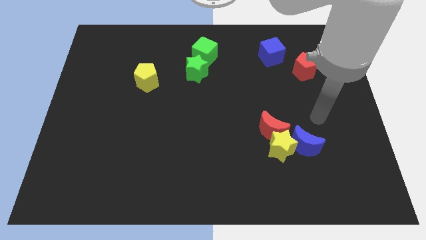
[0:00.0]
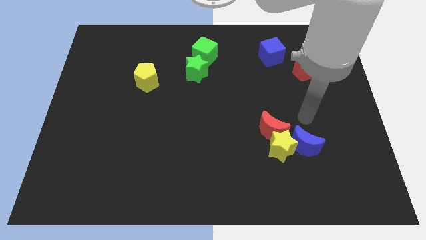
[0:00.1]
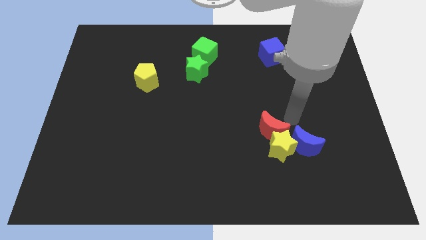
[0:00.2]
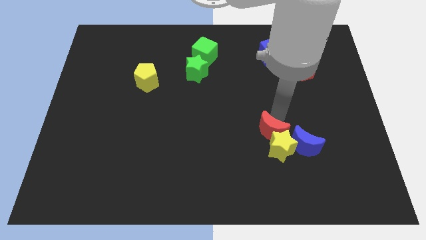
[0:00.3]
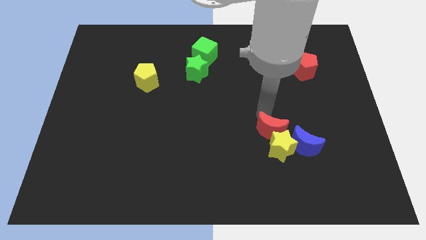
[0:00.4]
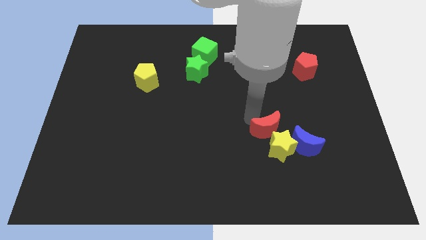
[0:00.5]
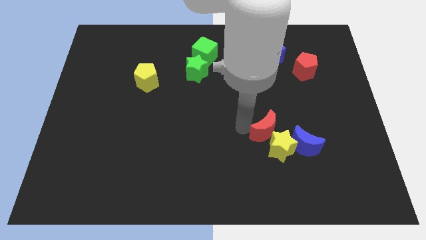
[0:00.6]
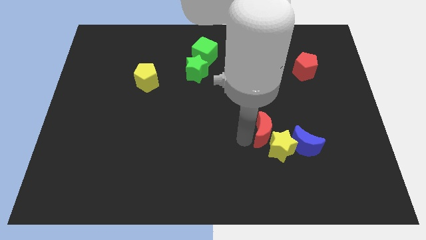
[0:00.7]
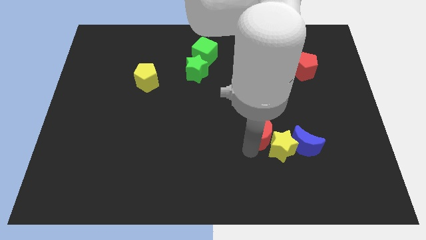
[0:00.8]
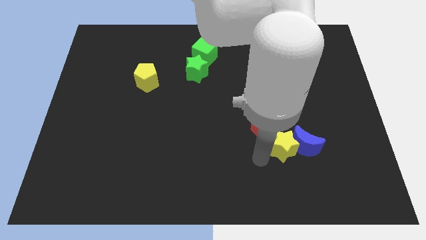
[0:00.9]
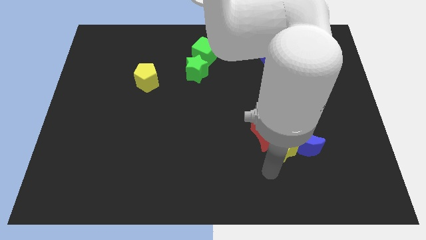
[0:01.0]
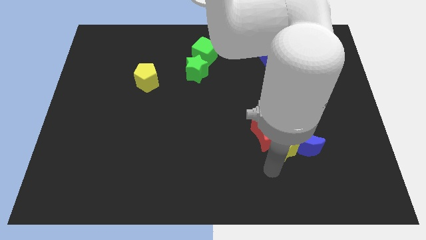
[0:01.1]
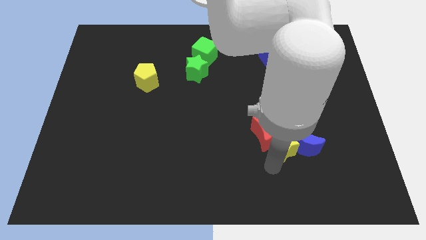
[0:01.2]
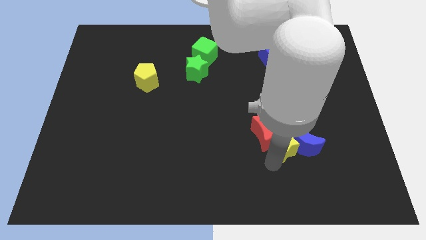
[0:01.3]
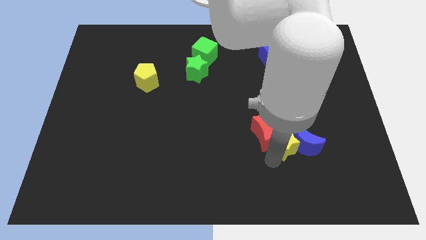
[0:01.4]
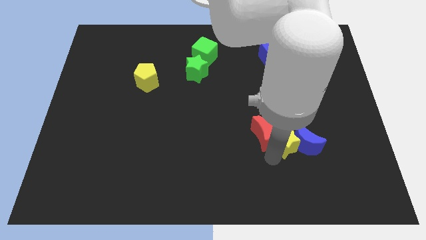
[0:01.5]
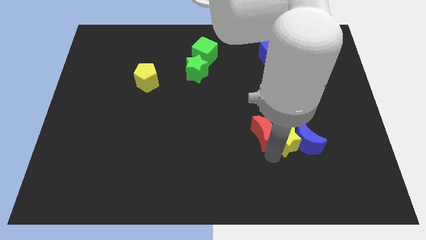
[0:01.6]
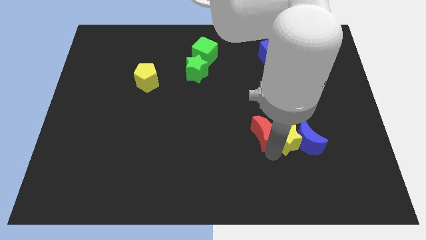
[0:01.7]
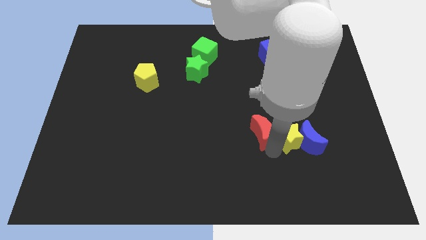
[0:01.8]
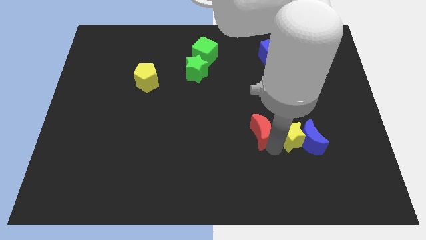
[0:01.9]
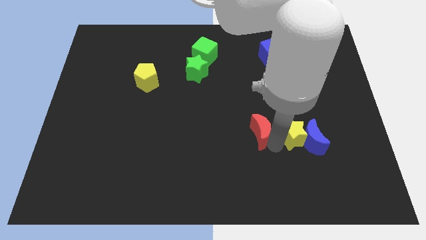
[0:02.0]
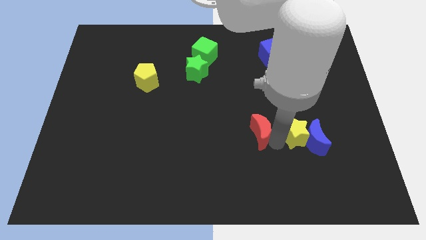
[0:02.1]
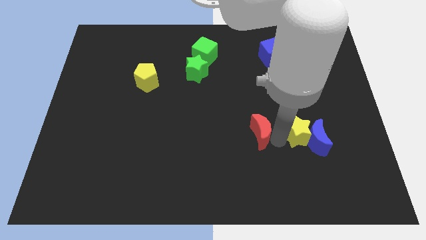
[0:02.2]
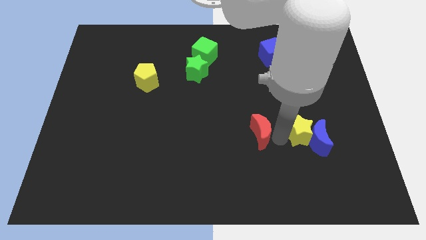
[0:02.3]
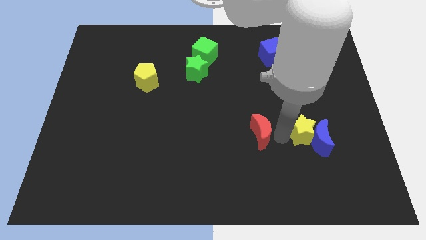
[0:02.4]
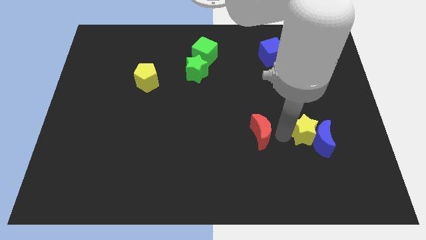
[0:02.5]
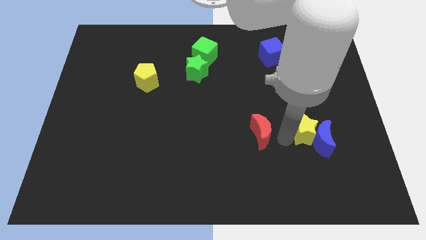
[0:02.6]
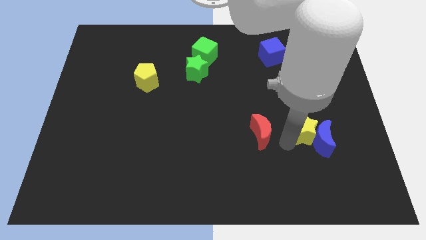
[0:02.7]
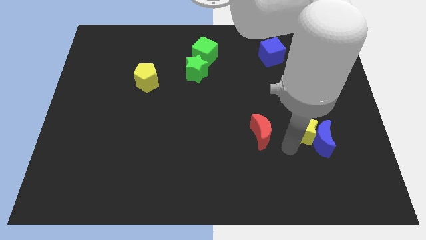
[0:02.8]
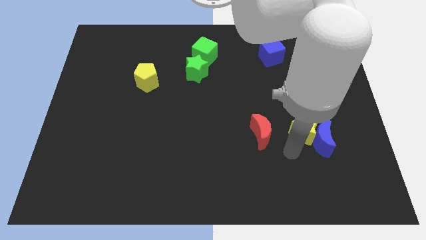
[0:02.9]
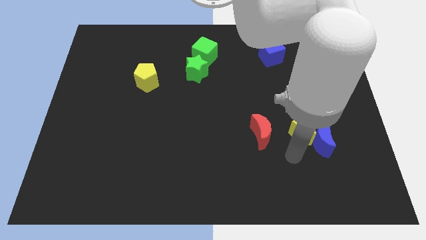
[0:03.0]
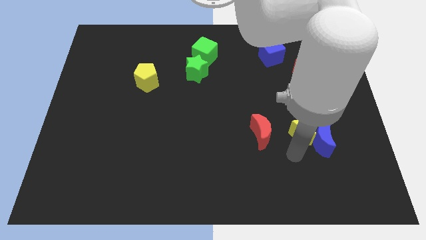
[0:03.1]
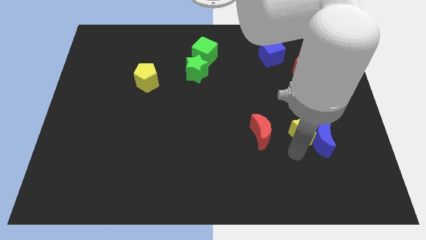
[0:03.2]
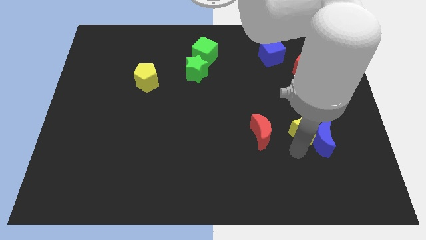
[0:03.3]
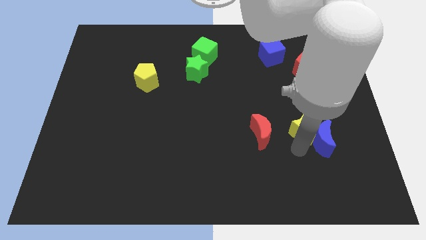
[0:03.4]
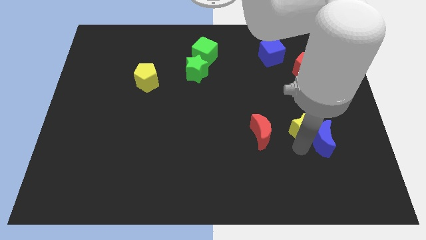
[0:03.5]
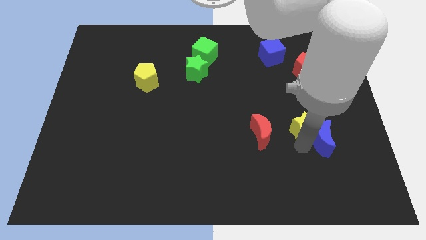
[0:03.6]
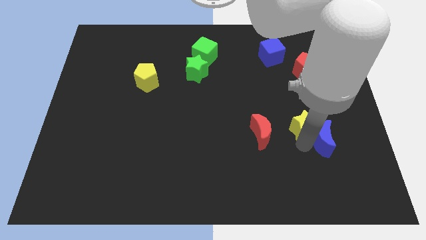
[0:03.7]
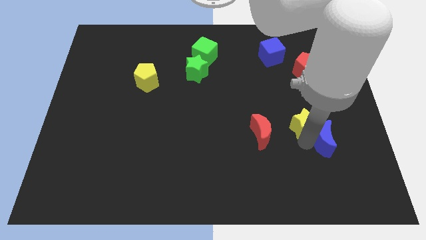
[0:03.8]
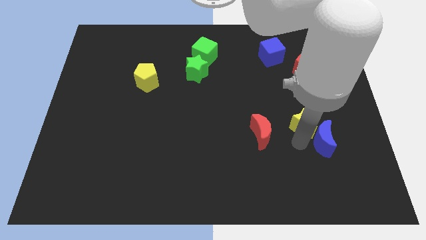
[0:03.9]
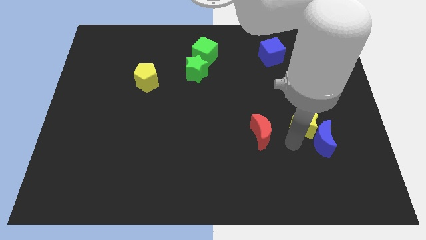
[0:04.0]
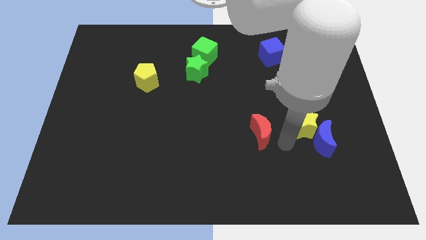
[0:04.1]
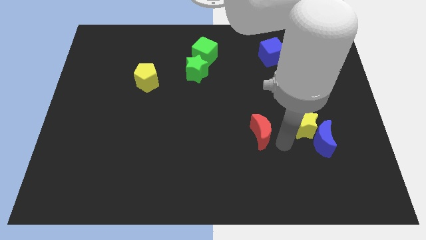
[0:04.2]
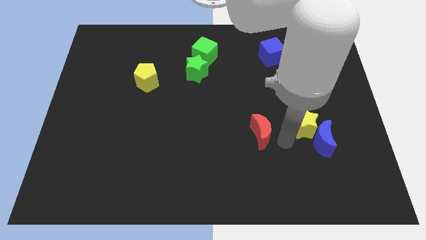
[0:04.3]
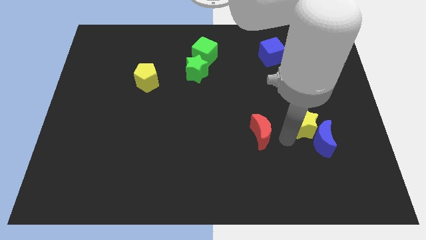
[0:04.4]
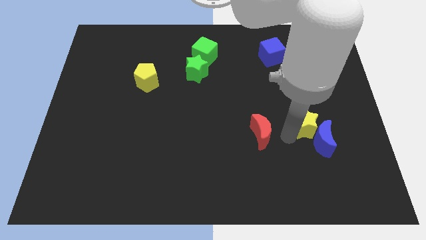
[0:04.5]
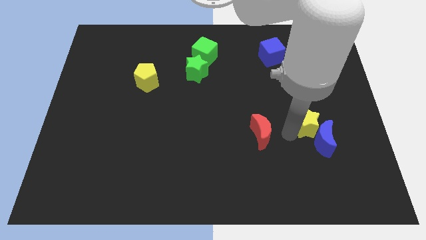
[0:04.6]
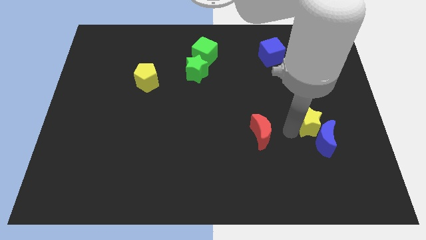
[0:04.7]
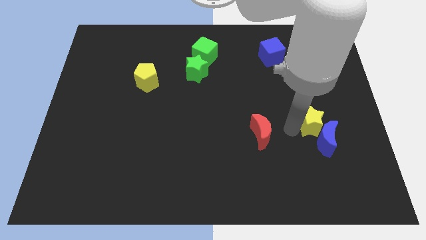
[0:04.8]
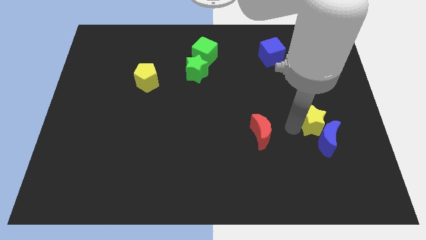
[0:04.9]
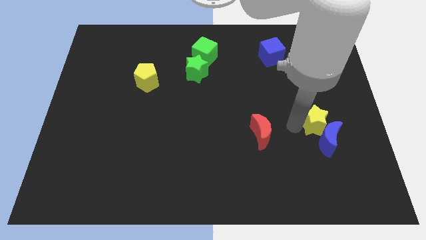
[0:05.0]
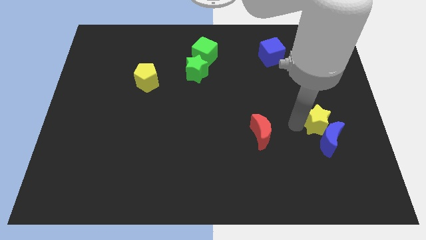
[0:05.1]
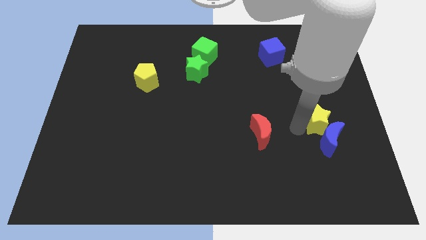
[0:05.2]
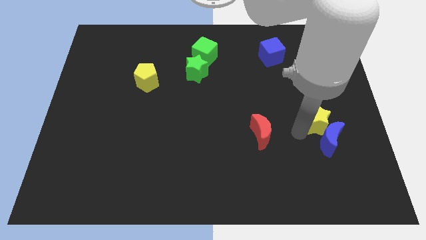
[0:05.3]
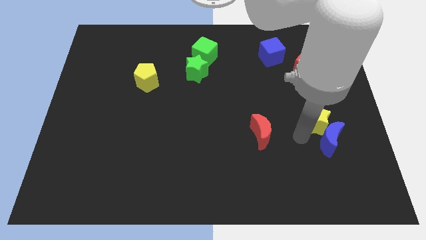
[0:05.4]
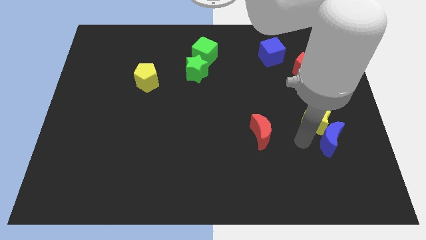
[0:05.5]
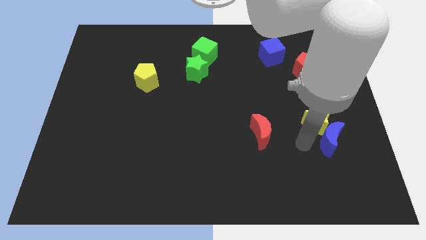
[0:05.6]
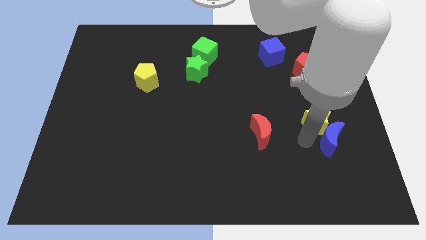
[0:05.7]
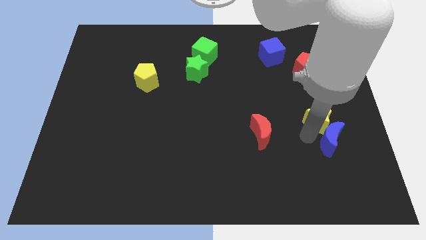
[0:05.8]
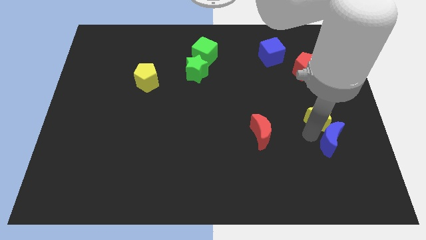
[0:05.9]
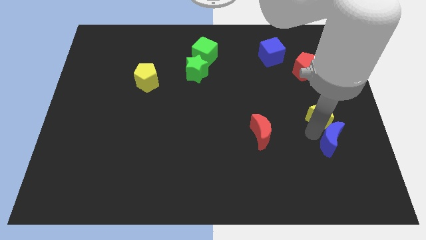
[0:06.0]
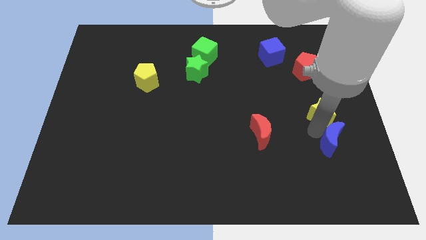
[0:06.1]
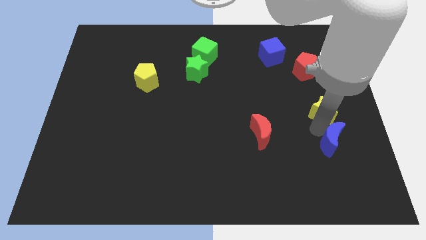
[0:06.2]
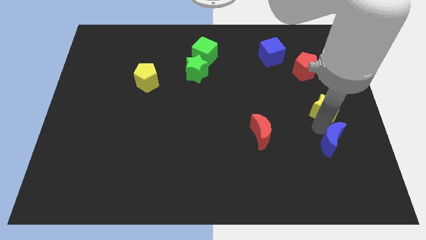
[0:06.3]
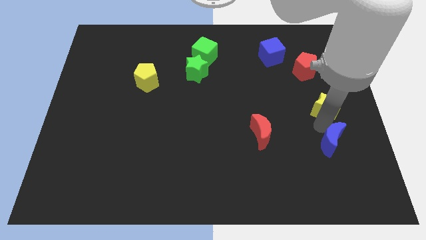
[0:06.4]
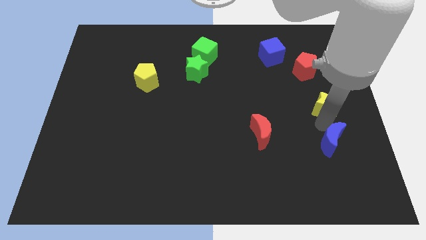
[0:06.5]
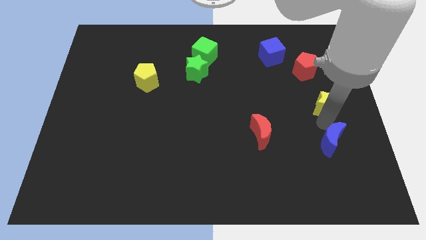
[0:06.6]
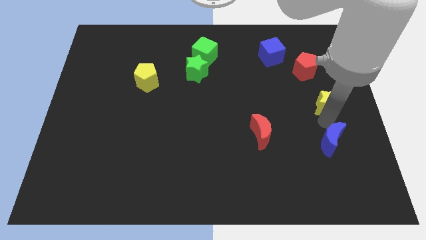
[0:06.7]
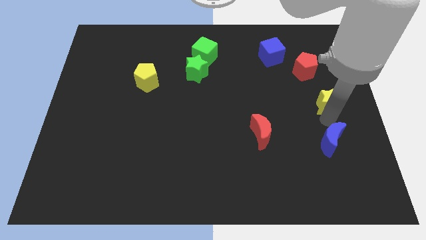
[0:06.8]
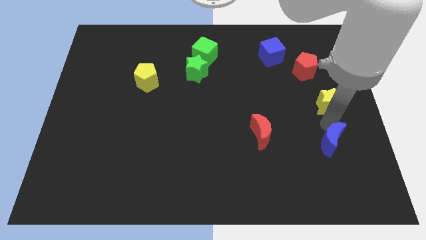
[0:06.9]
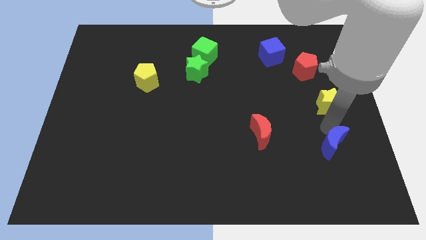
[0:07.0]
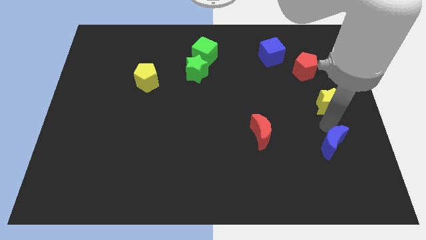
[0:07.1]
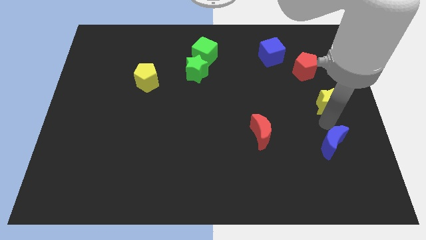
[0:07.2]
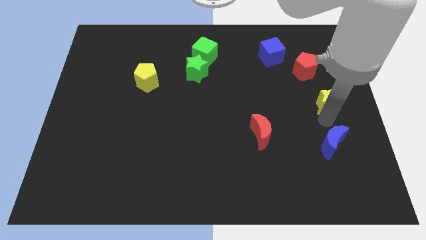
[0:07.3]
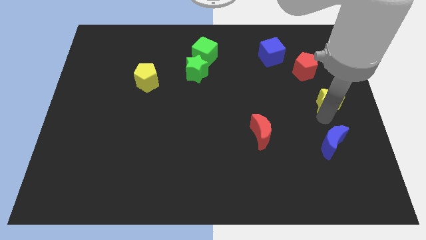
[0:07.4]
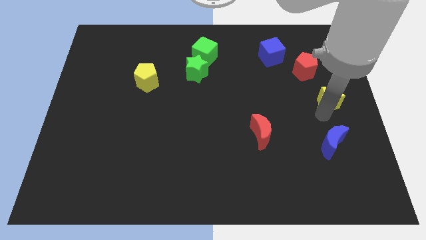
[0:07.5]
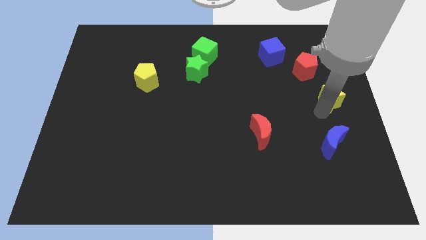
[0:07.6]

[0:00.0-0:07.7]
move the yellow star to the bottom right of the red pentagon
